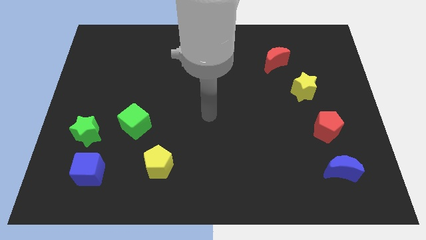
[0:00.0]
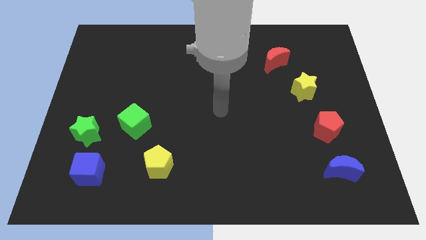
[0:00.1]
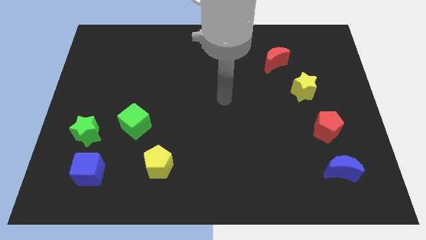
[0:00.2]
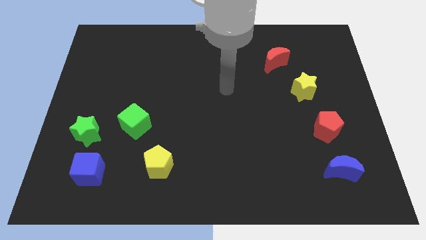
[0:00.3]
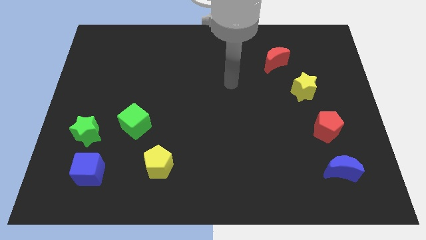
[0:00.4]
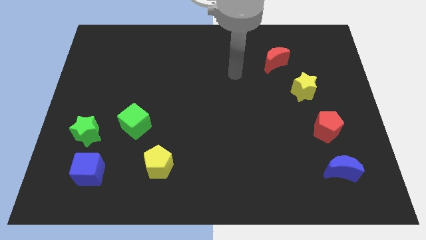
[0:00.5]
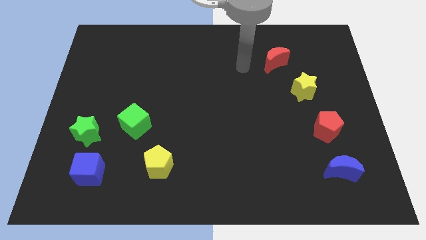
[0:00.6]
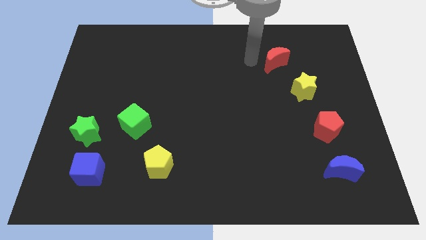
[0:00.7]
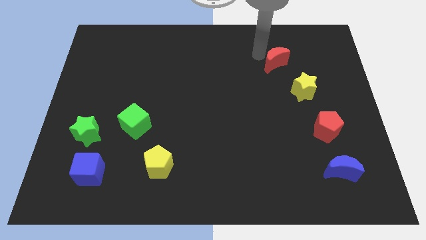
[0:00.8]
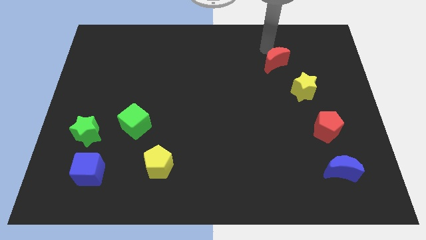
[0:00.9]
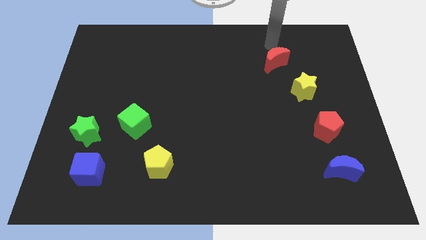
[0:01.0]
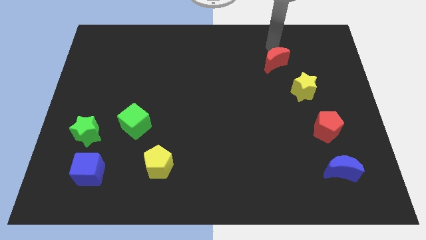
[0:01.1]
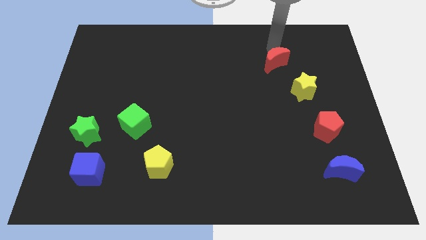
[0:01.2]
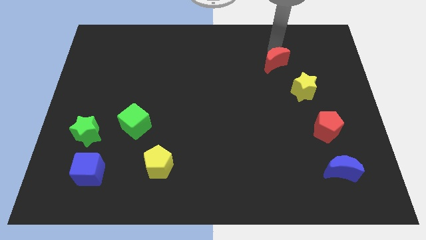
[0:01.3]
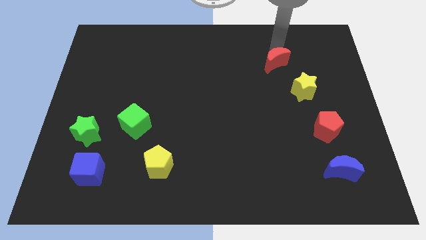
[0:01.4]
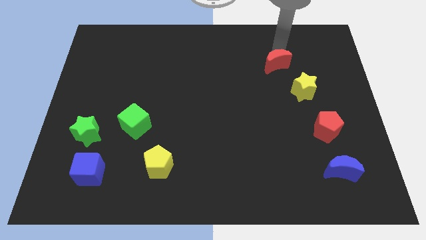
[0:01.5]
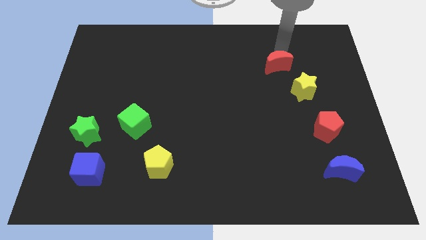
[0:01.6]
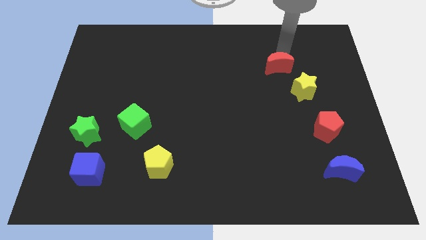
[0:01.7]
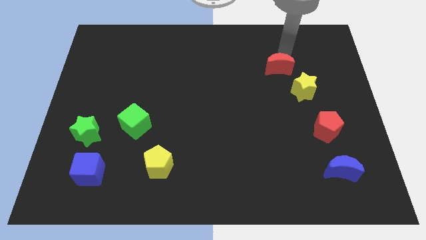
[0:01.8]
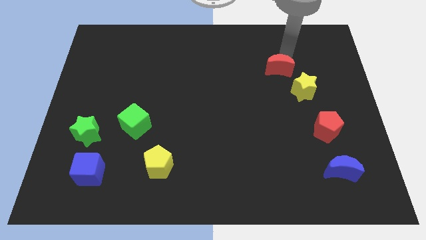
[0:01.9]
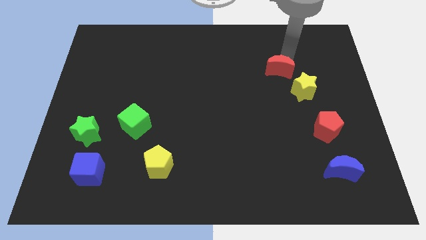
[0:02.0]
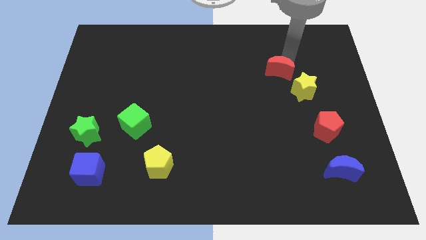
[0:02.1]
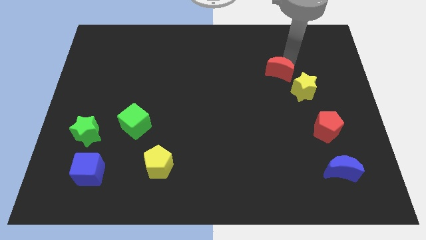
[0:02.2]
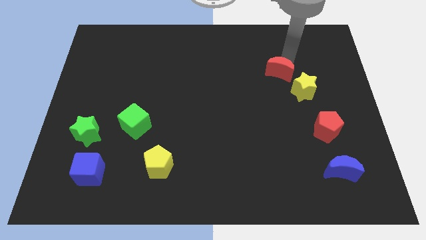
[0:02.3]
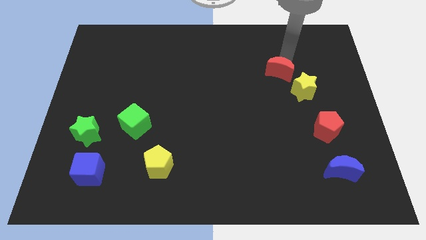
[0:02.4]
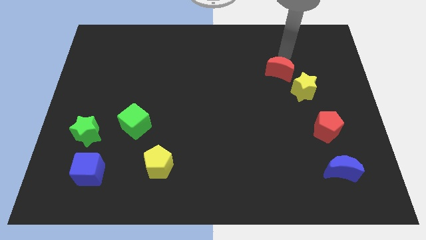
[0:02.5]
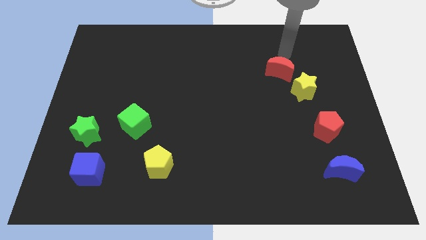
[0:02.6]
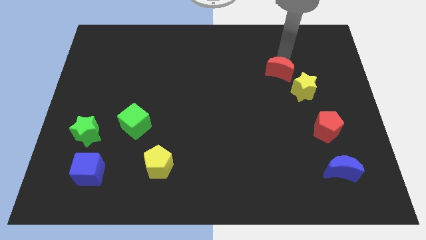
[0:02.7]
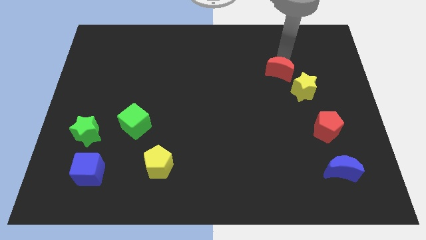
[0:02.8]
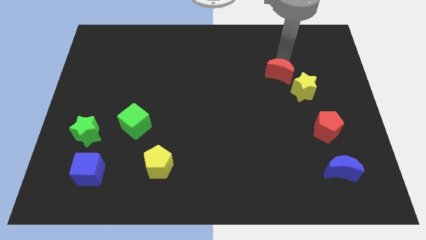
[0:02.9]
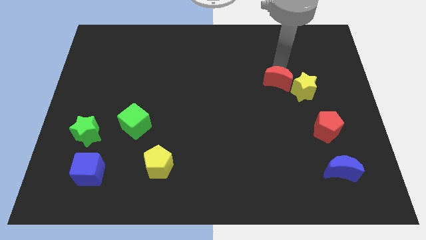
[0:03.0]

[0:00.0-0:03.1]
move the red moon a bit downwards

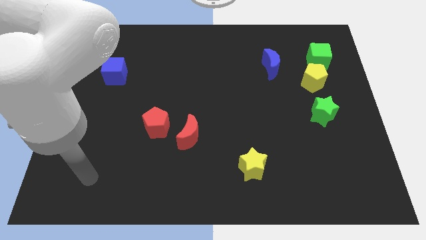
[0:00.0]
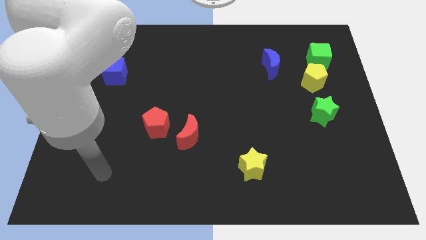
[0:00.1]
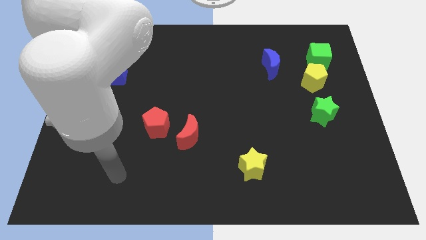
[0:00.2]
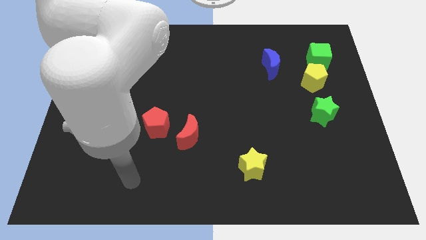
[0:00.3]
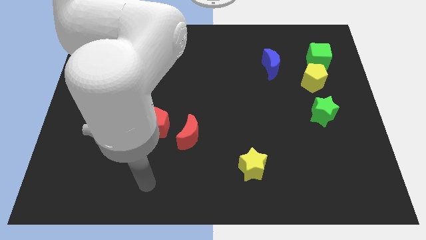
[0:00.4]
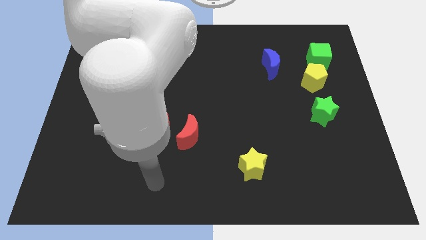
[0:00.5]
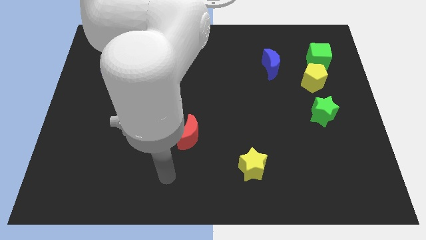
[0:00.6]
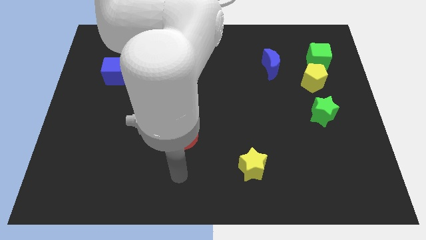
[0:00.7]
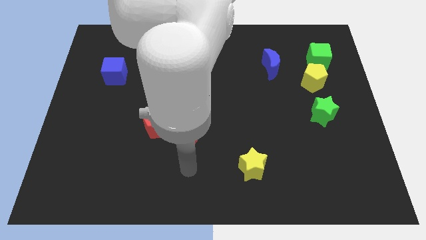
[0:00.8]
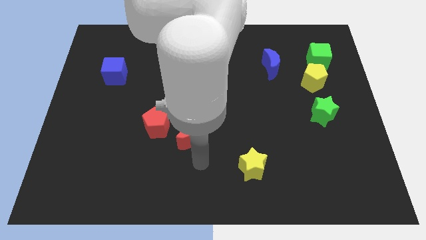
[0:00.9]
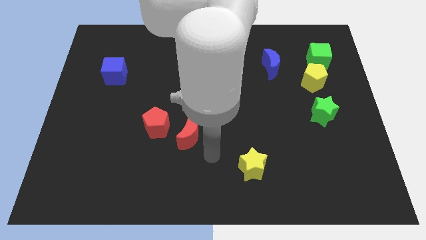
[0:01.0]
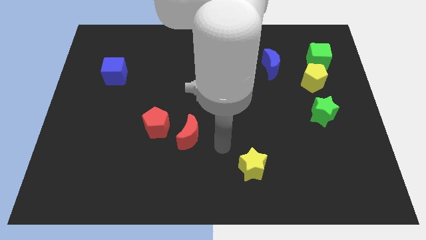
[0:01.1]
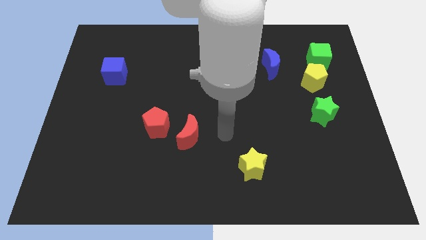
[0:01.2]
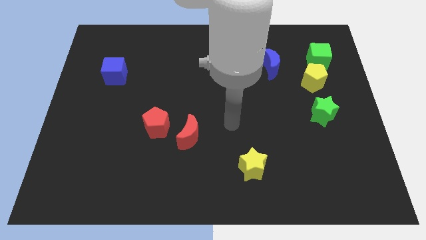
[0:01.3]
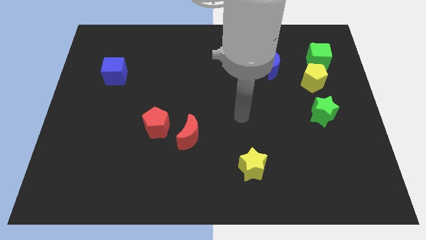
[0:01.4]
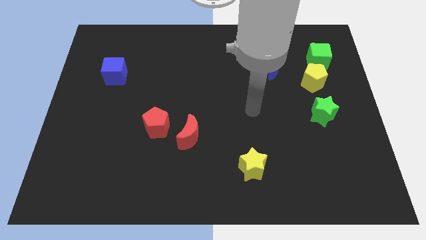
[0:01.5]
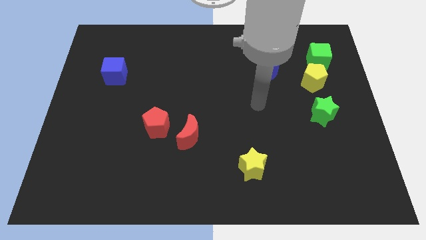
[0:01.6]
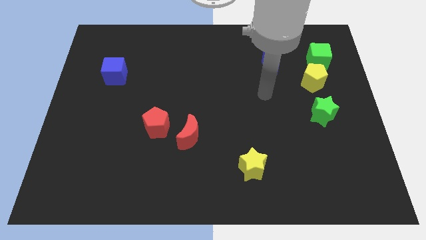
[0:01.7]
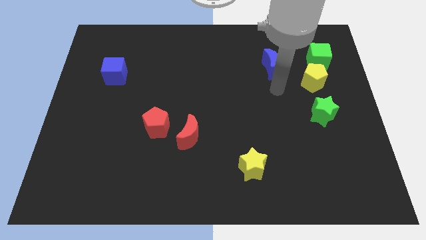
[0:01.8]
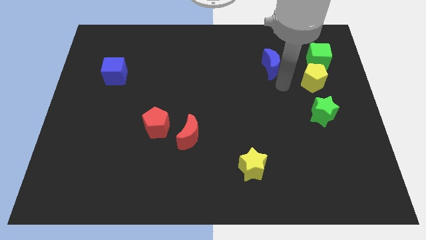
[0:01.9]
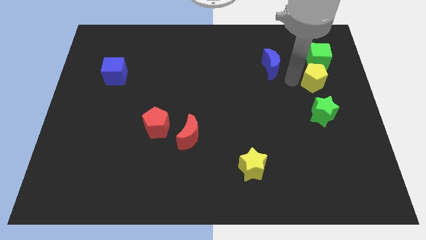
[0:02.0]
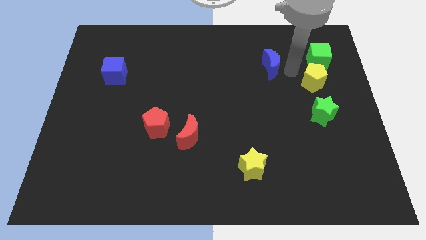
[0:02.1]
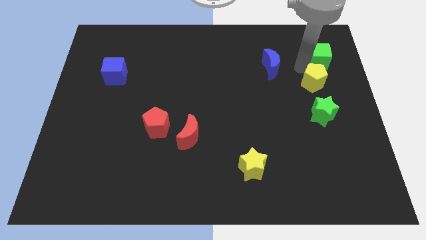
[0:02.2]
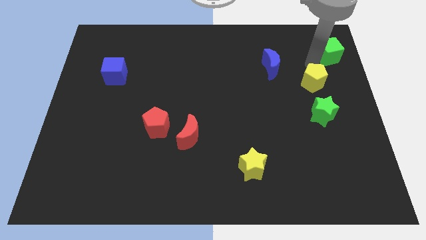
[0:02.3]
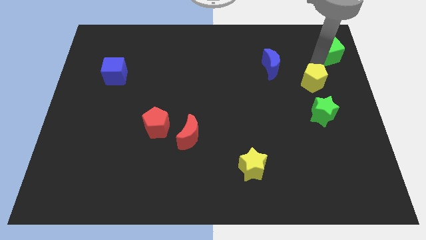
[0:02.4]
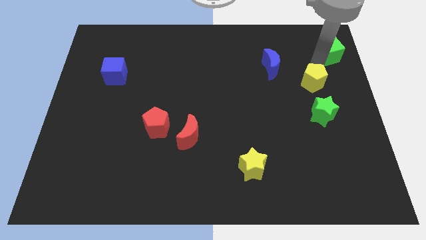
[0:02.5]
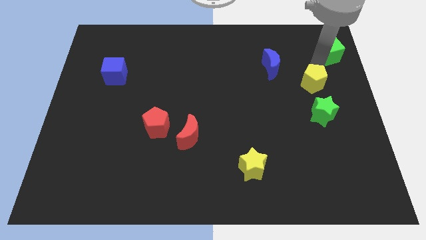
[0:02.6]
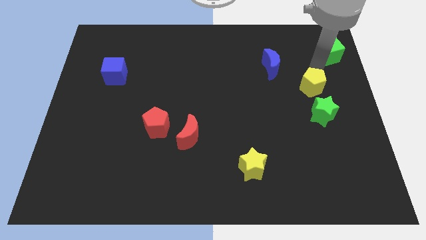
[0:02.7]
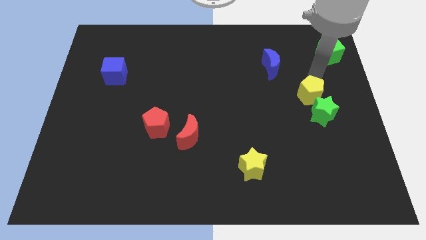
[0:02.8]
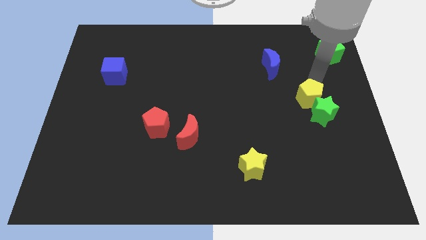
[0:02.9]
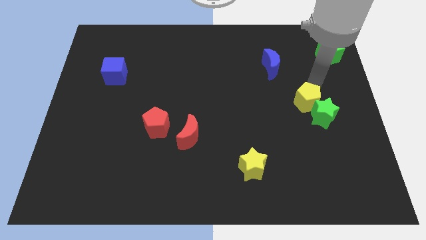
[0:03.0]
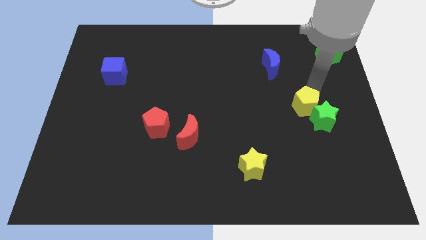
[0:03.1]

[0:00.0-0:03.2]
move the yellow pentagon slightly diagonally downwards and left

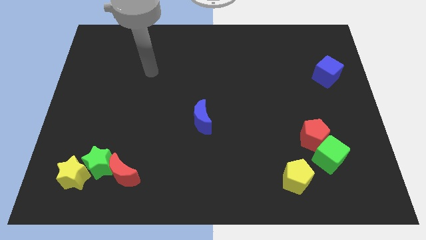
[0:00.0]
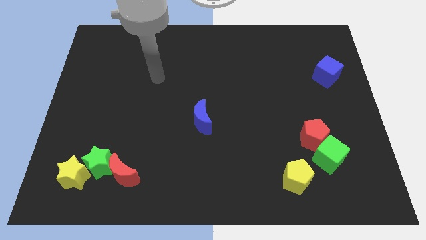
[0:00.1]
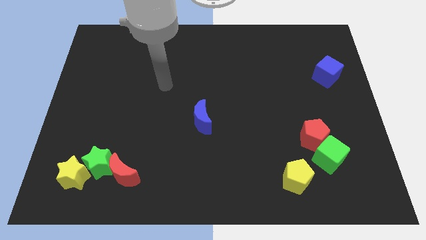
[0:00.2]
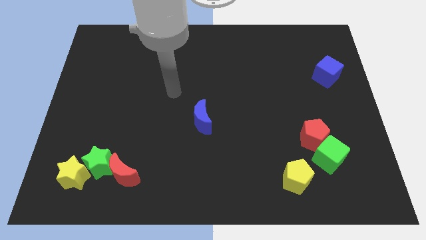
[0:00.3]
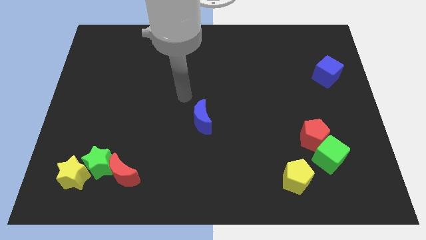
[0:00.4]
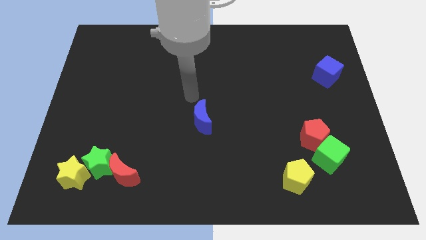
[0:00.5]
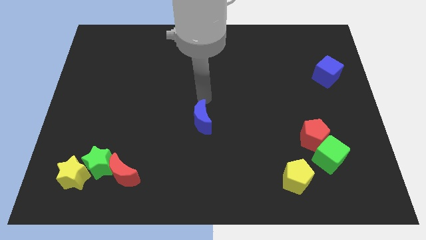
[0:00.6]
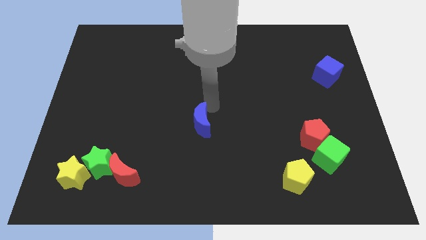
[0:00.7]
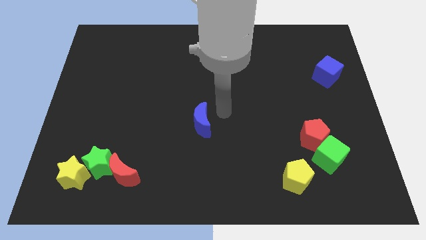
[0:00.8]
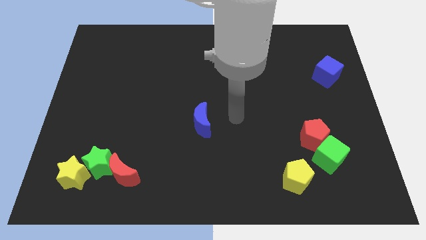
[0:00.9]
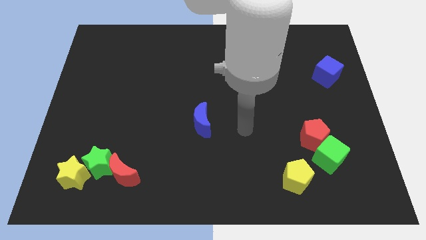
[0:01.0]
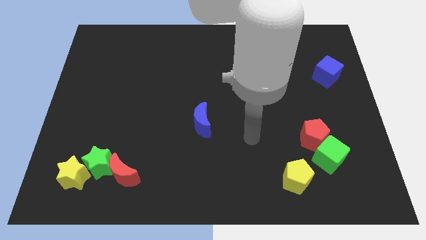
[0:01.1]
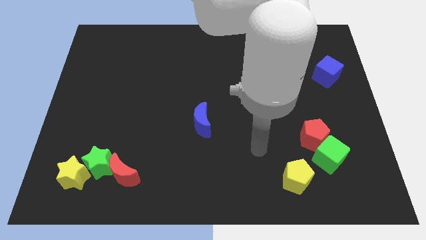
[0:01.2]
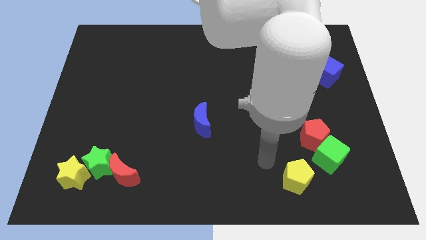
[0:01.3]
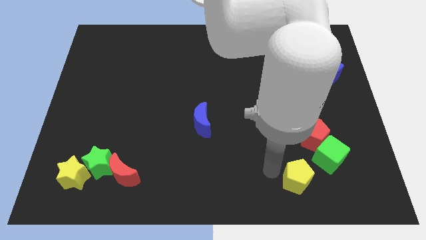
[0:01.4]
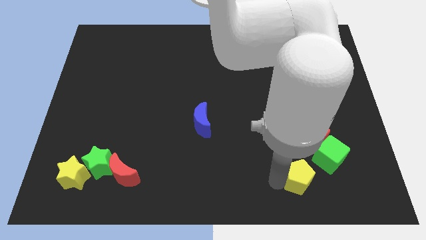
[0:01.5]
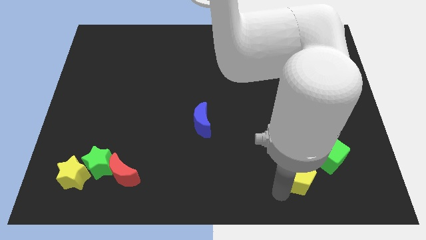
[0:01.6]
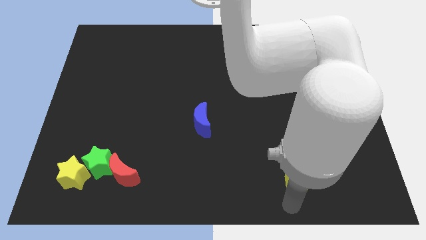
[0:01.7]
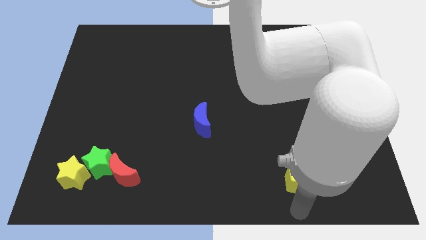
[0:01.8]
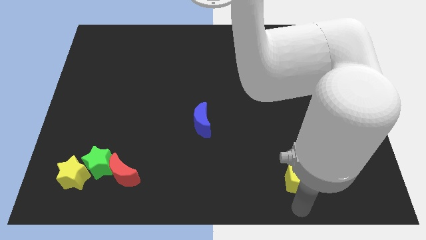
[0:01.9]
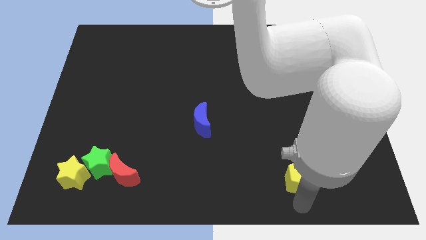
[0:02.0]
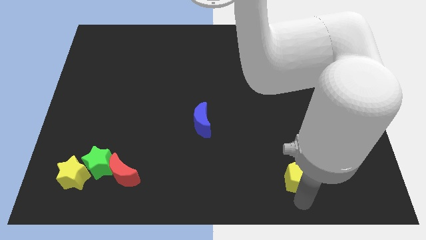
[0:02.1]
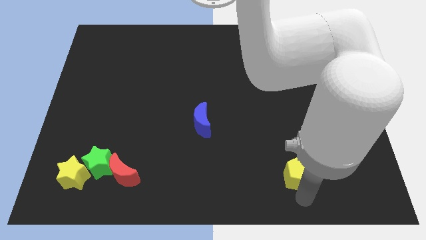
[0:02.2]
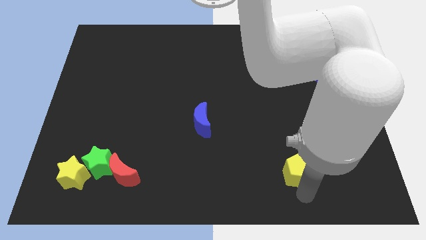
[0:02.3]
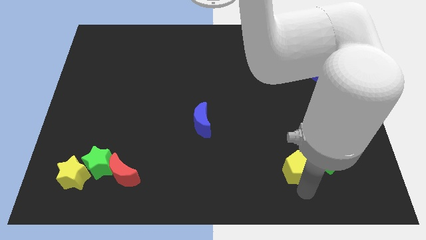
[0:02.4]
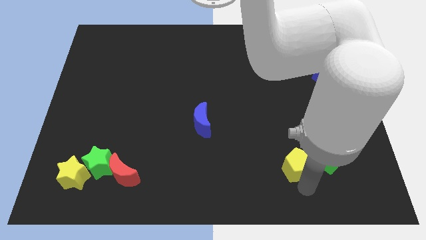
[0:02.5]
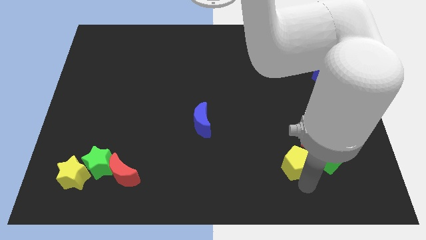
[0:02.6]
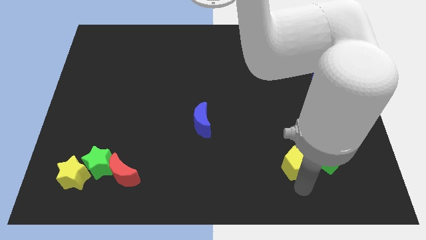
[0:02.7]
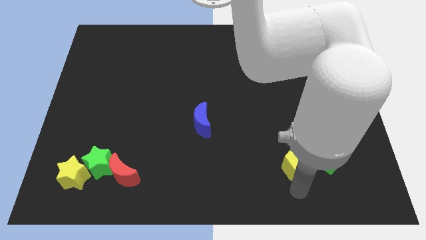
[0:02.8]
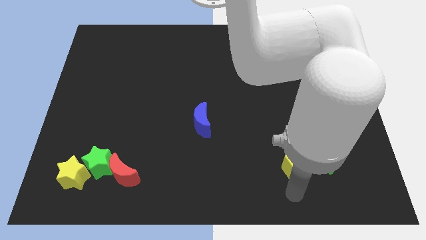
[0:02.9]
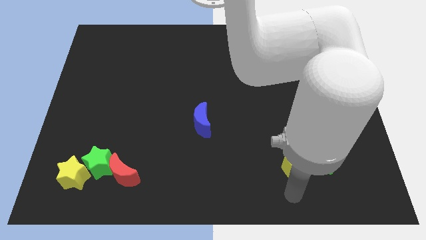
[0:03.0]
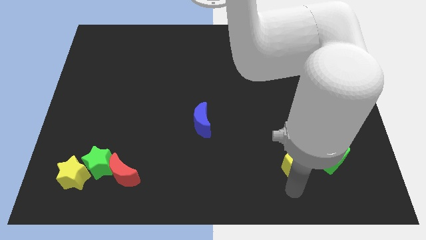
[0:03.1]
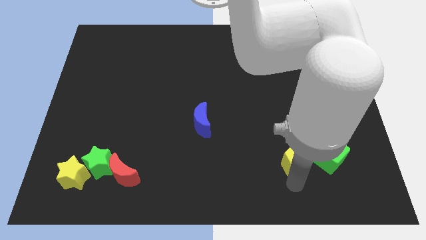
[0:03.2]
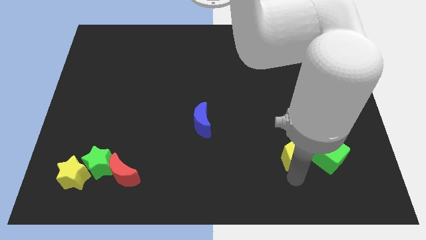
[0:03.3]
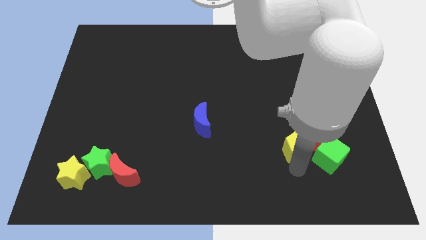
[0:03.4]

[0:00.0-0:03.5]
slide the yellow pentagon upwards slightly
